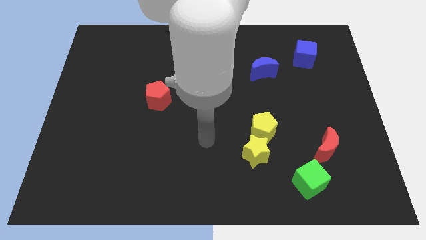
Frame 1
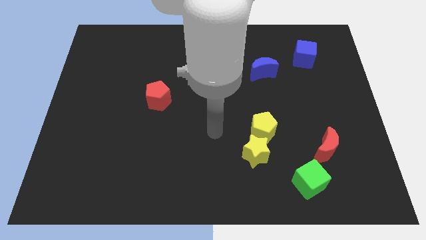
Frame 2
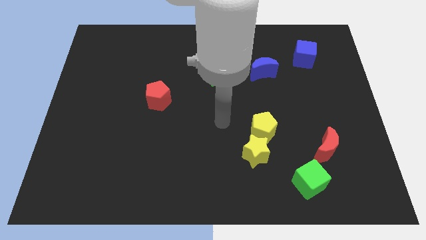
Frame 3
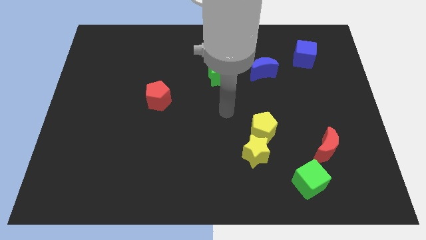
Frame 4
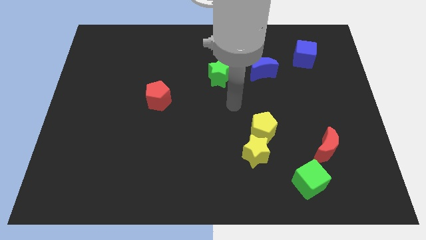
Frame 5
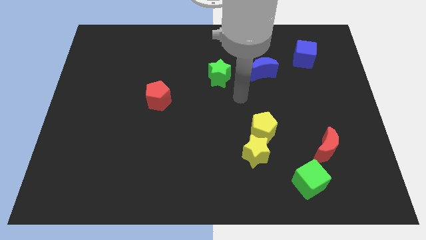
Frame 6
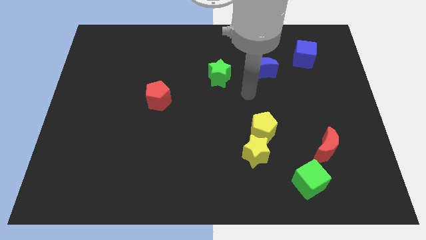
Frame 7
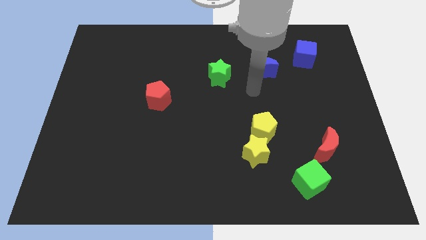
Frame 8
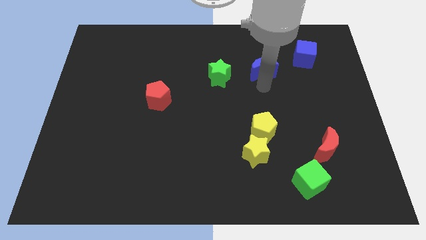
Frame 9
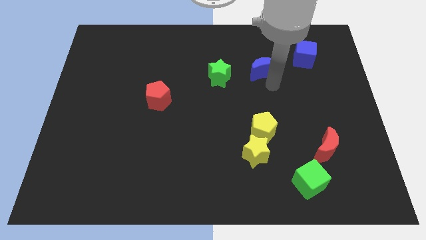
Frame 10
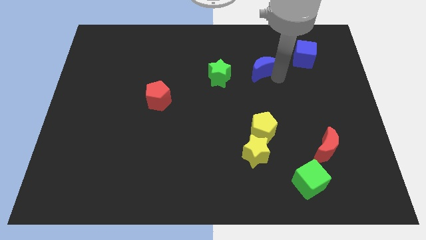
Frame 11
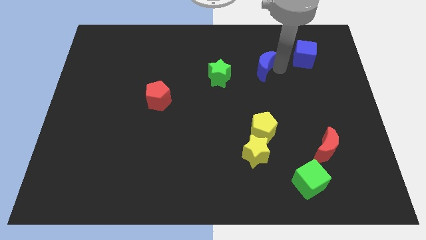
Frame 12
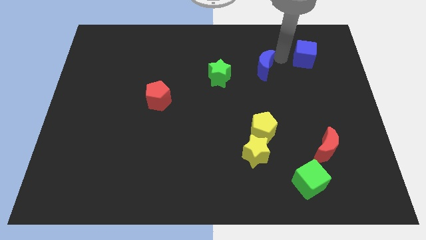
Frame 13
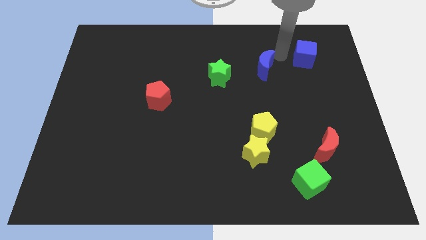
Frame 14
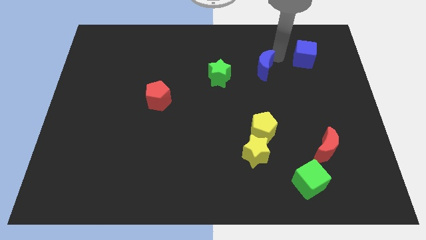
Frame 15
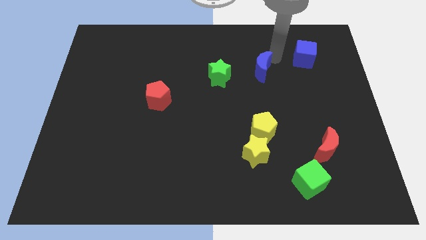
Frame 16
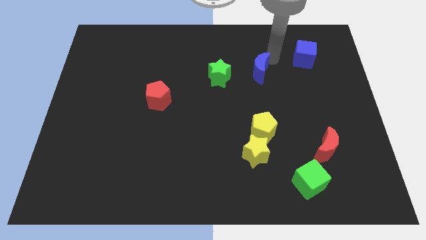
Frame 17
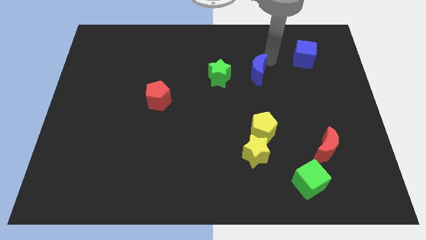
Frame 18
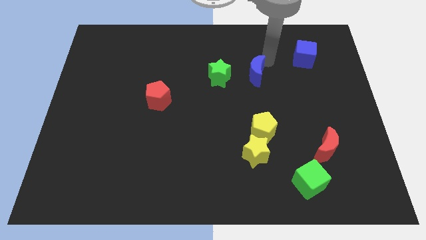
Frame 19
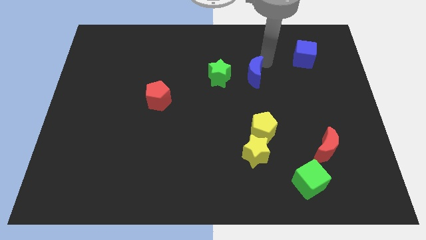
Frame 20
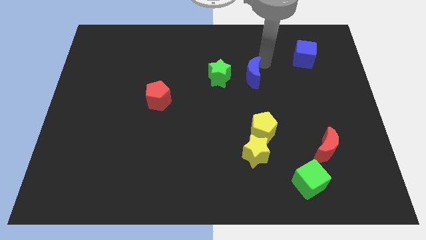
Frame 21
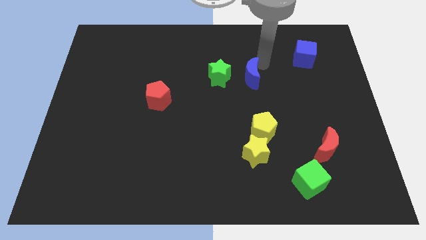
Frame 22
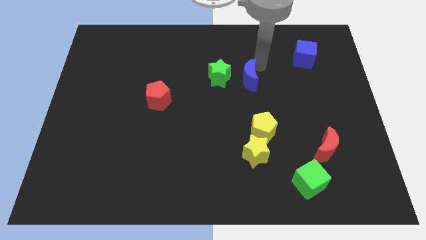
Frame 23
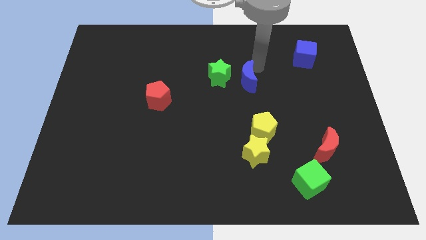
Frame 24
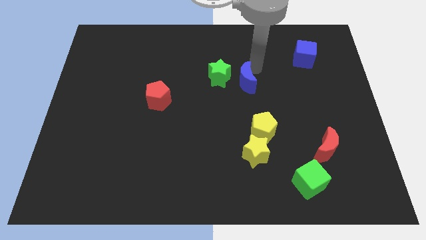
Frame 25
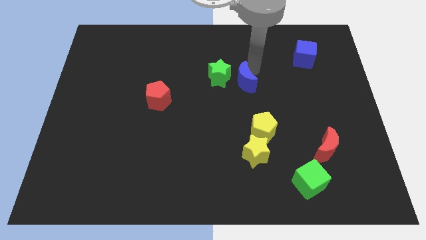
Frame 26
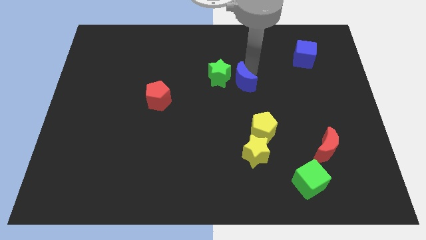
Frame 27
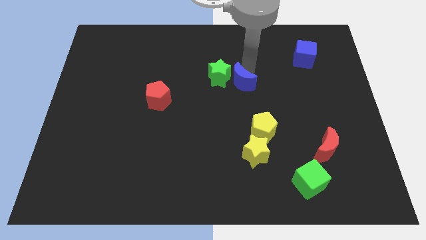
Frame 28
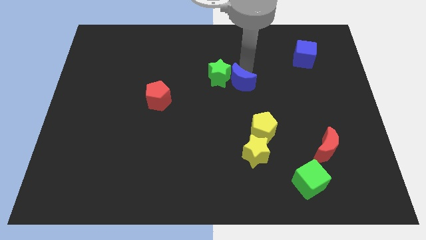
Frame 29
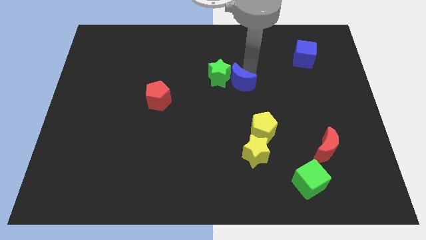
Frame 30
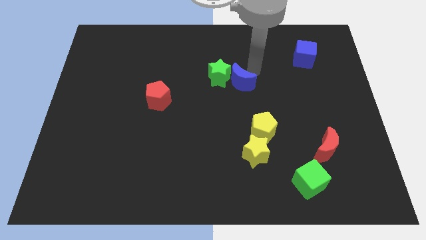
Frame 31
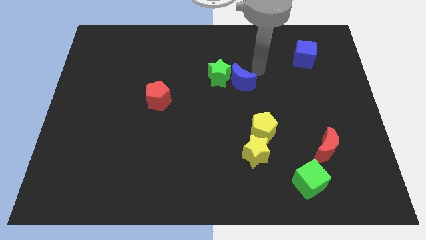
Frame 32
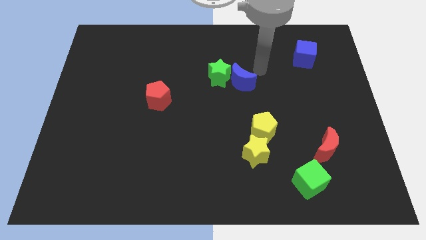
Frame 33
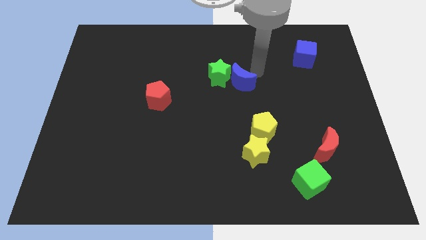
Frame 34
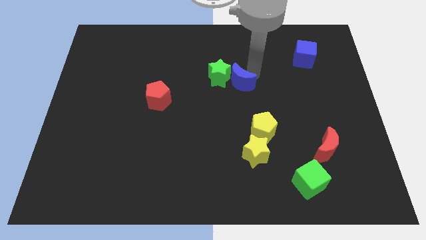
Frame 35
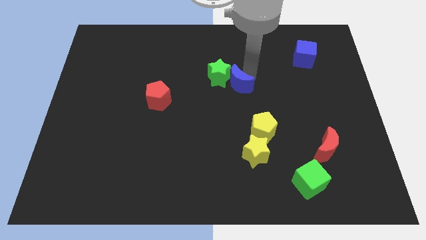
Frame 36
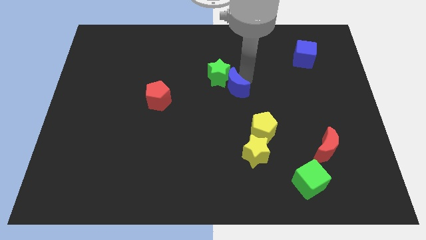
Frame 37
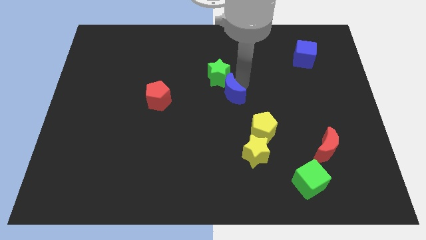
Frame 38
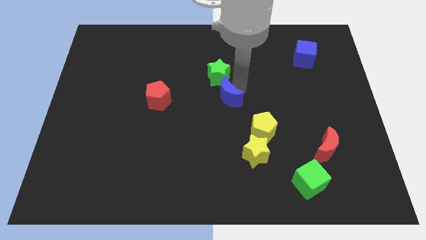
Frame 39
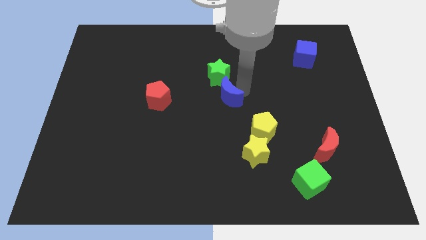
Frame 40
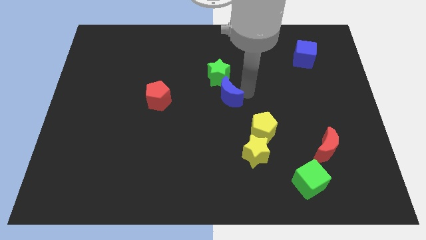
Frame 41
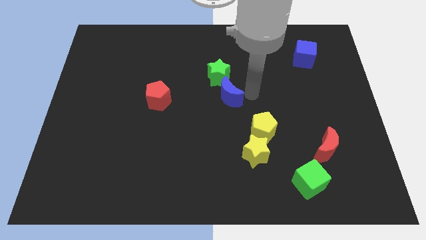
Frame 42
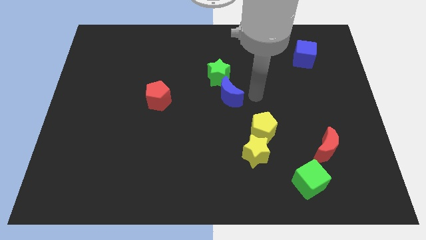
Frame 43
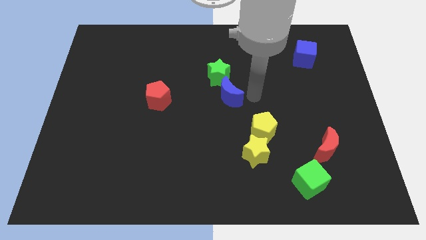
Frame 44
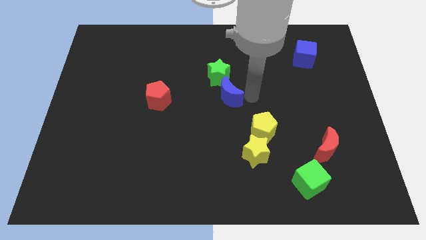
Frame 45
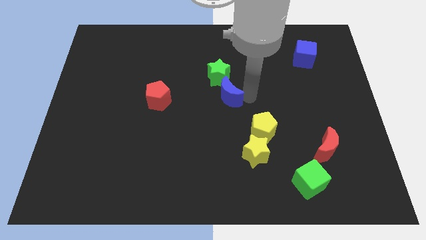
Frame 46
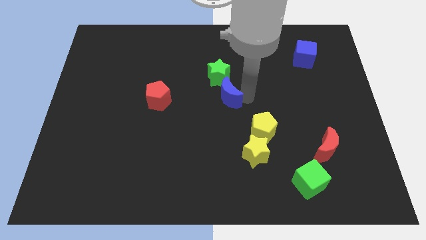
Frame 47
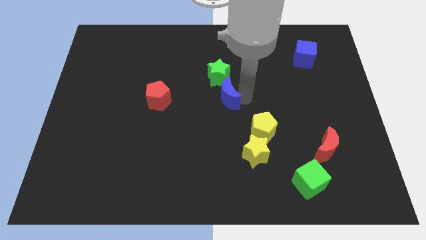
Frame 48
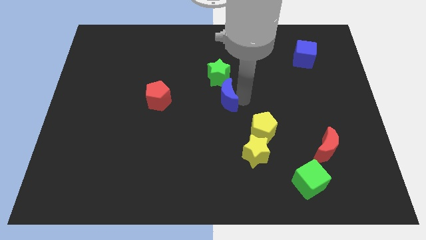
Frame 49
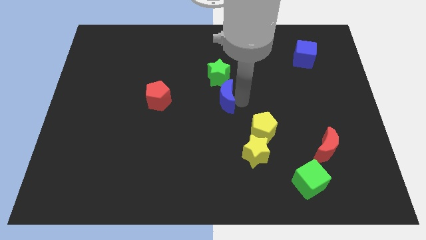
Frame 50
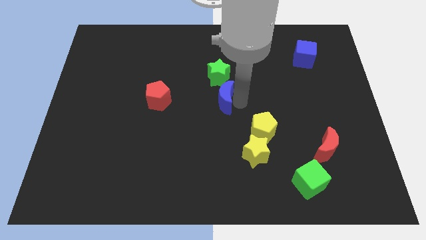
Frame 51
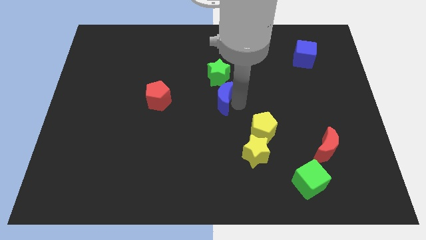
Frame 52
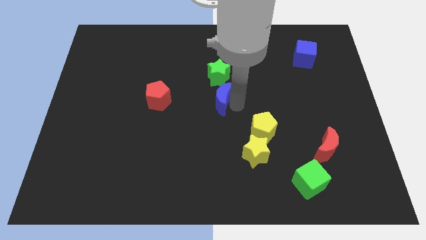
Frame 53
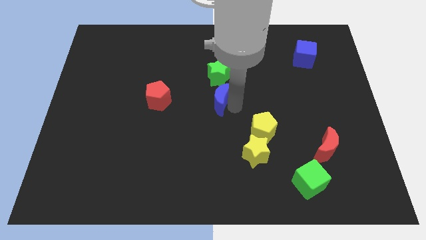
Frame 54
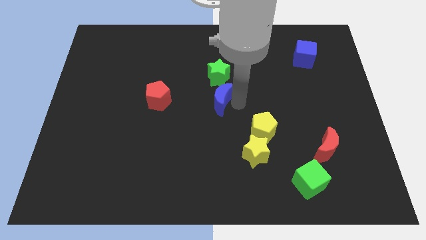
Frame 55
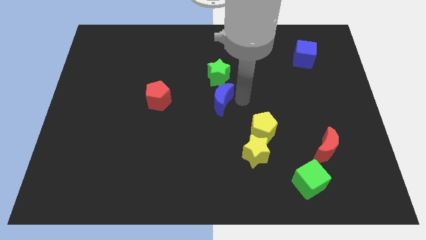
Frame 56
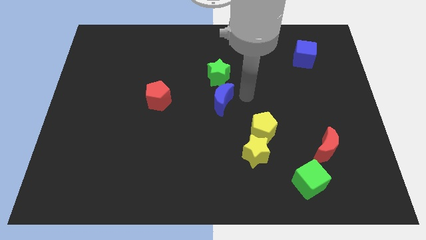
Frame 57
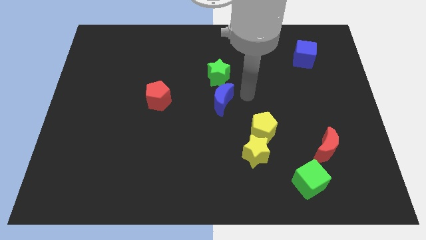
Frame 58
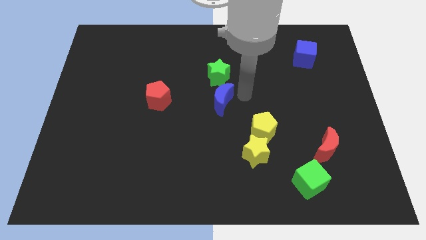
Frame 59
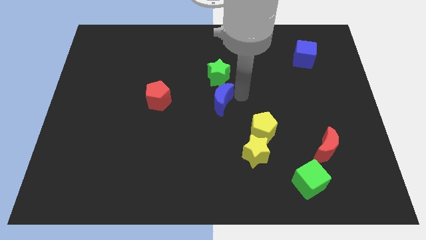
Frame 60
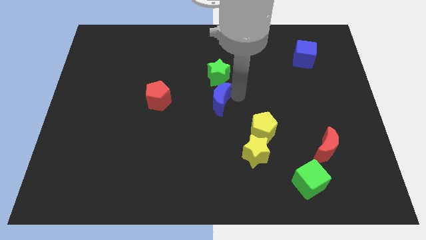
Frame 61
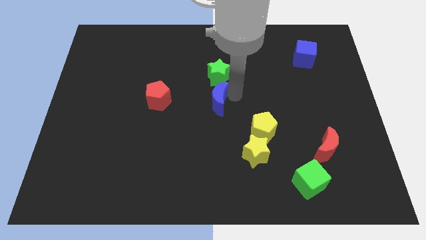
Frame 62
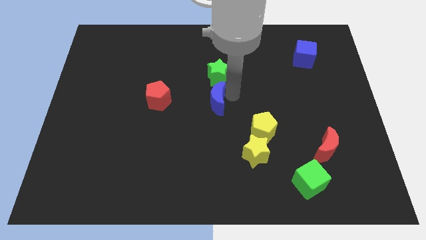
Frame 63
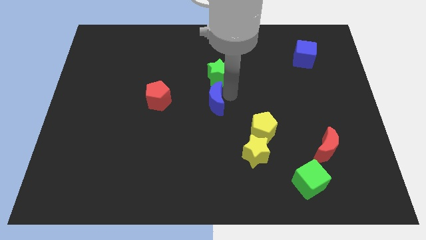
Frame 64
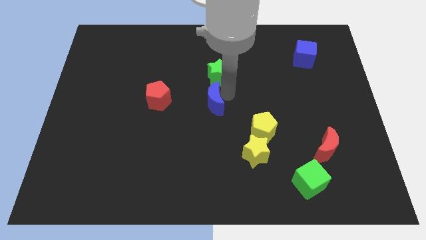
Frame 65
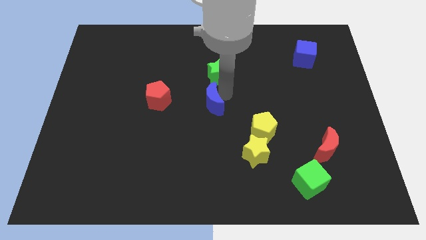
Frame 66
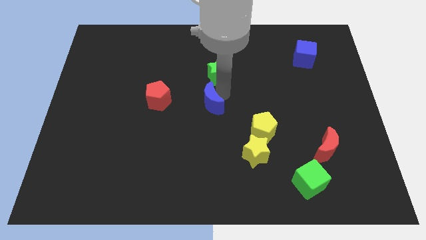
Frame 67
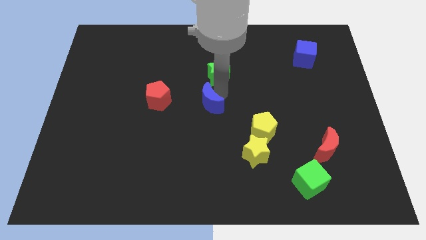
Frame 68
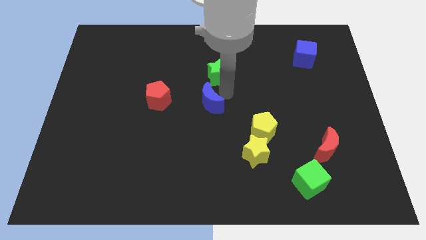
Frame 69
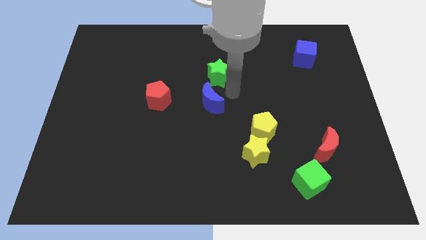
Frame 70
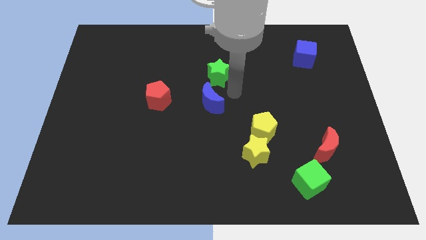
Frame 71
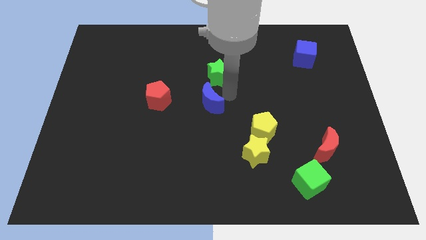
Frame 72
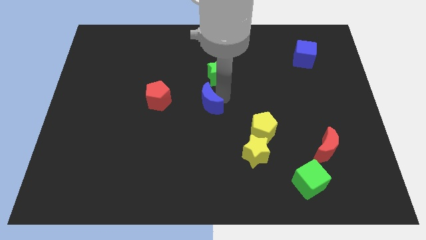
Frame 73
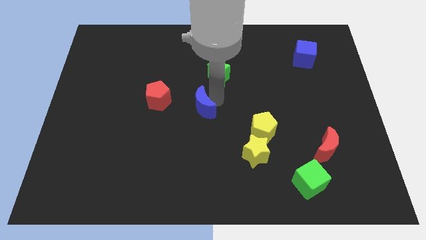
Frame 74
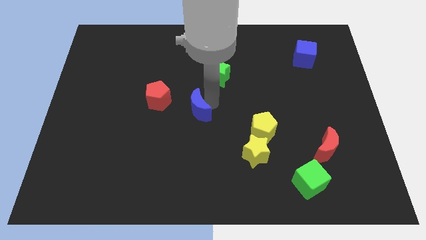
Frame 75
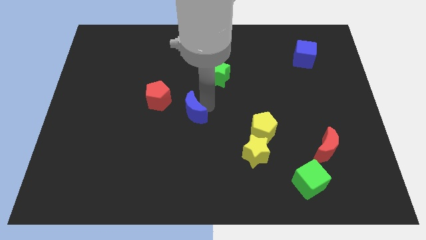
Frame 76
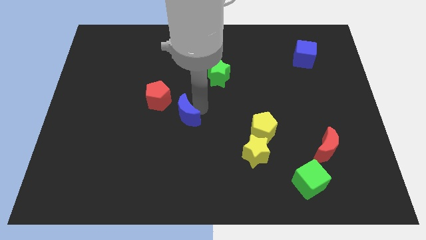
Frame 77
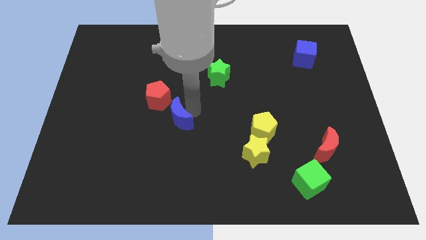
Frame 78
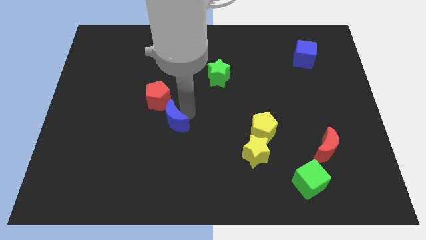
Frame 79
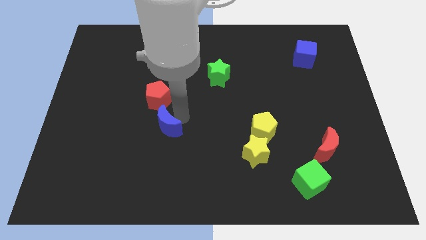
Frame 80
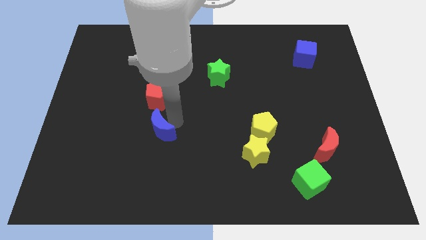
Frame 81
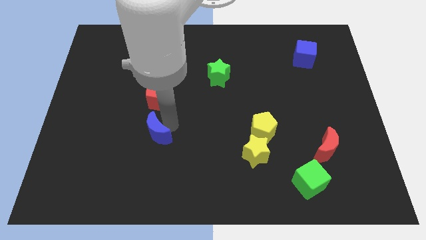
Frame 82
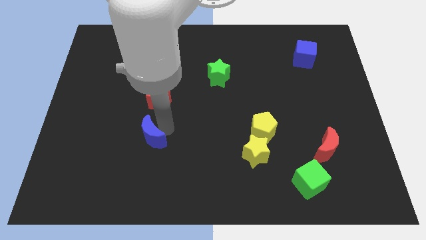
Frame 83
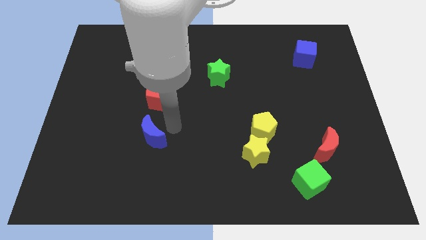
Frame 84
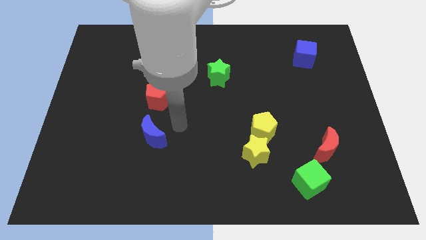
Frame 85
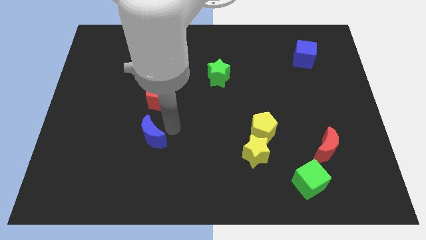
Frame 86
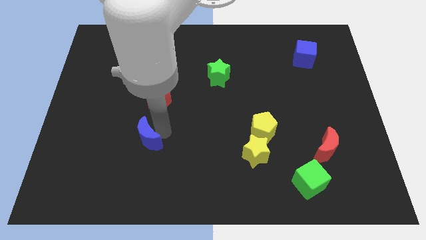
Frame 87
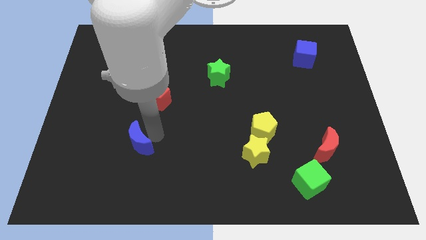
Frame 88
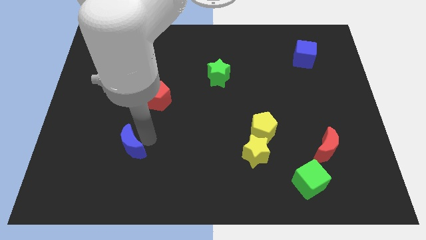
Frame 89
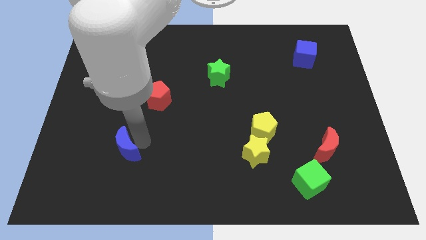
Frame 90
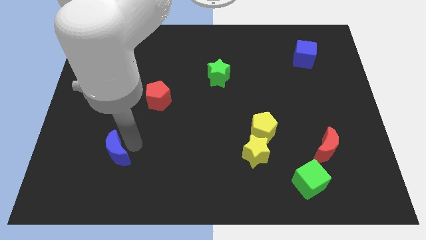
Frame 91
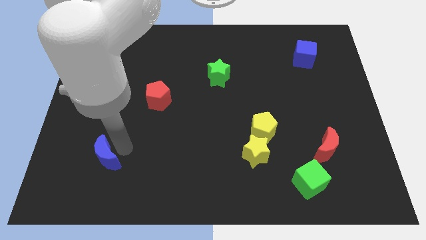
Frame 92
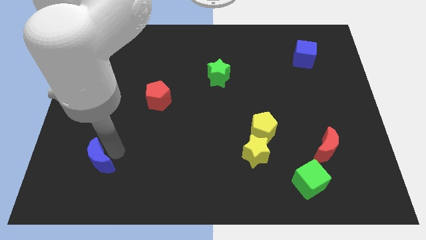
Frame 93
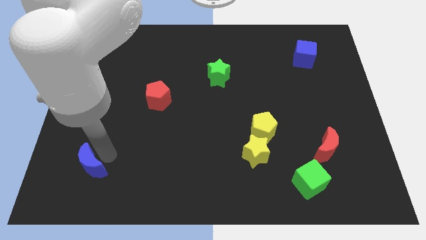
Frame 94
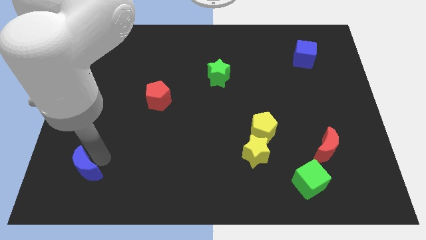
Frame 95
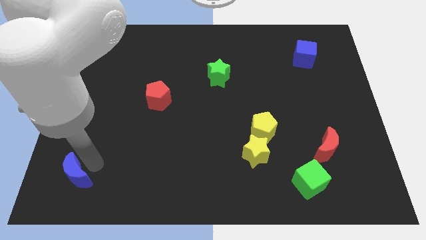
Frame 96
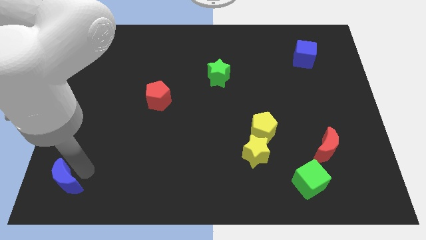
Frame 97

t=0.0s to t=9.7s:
push the blue moon to the bottom left of the board
